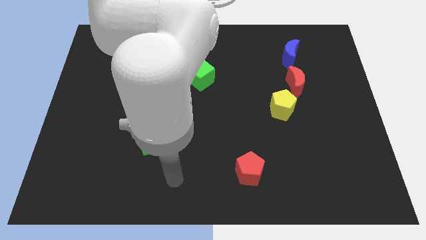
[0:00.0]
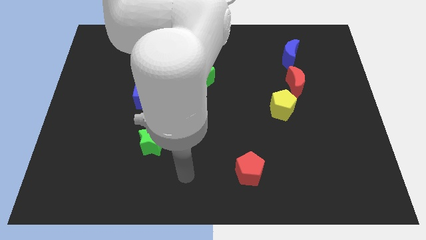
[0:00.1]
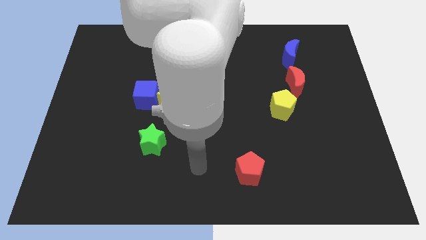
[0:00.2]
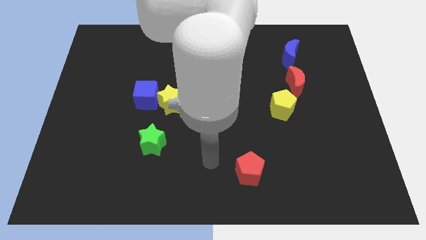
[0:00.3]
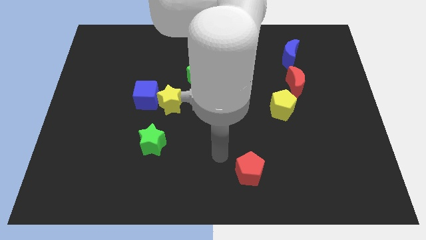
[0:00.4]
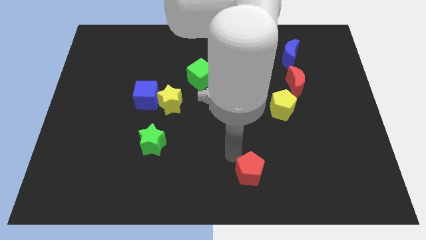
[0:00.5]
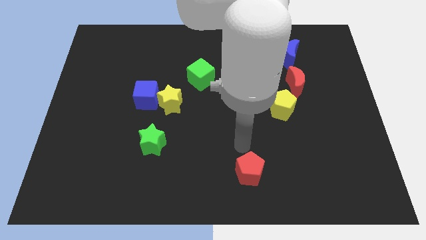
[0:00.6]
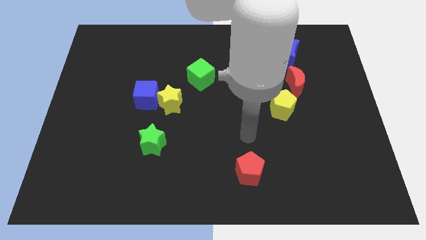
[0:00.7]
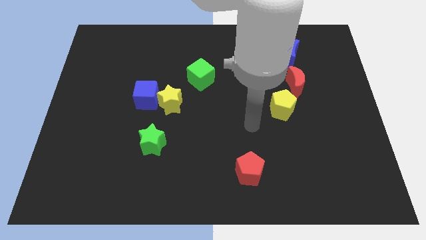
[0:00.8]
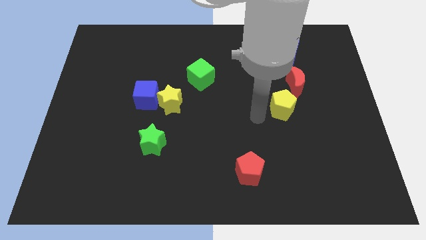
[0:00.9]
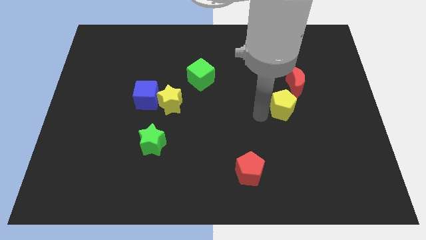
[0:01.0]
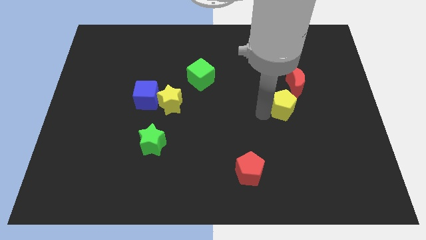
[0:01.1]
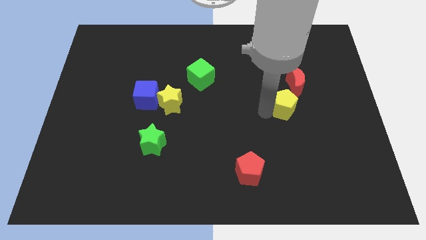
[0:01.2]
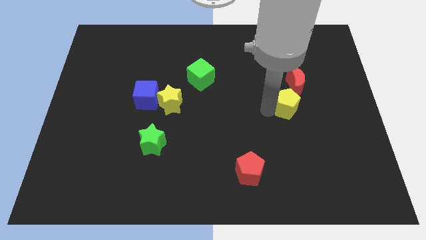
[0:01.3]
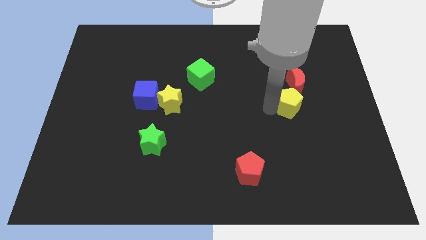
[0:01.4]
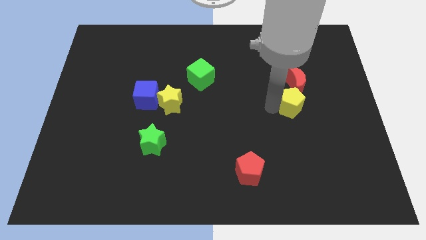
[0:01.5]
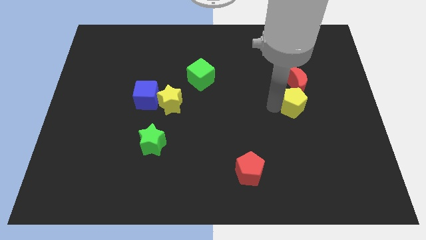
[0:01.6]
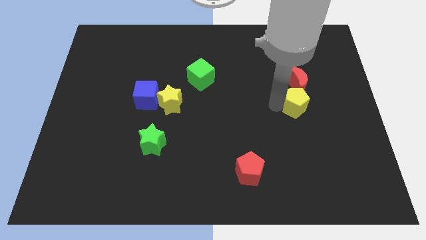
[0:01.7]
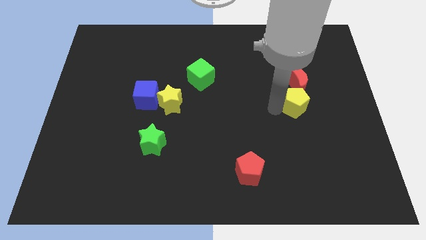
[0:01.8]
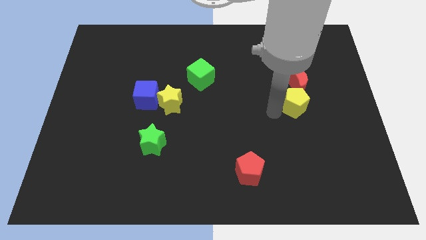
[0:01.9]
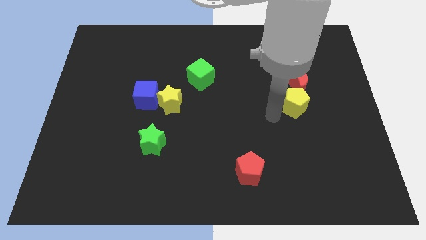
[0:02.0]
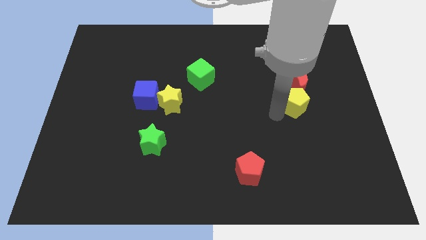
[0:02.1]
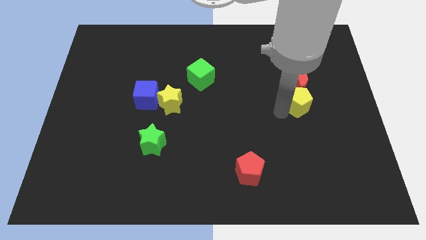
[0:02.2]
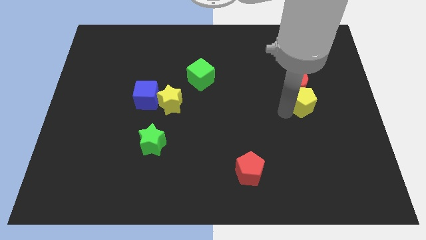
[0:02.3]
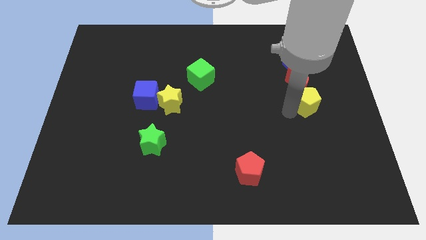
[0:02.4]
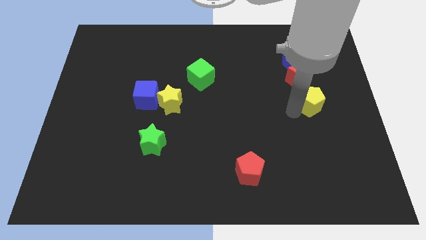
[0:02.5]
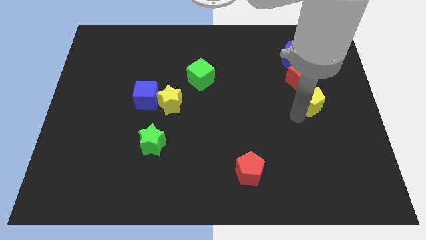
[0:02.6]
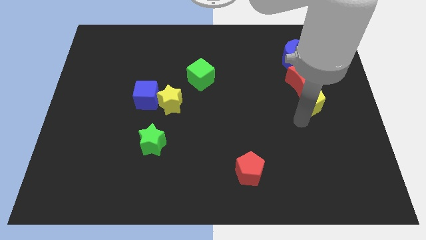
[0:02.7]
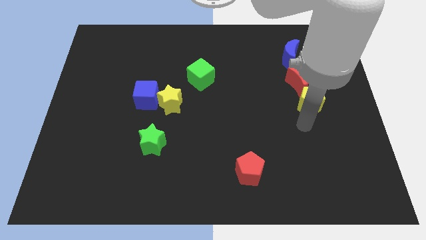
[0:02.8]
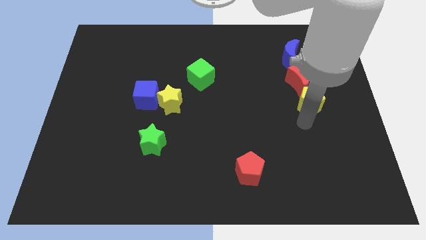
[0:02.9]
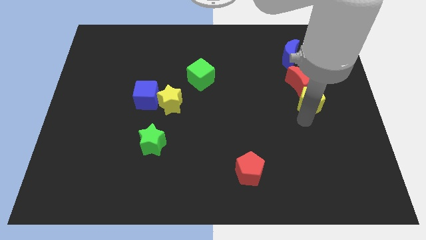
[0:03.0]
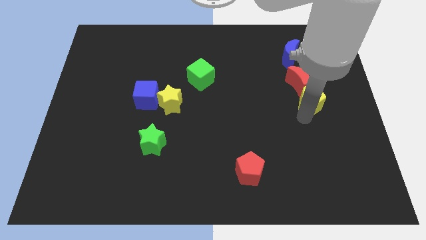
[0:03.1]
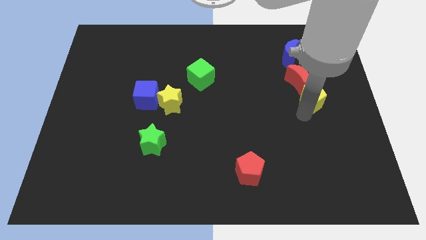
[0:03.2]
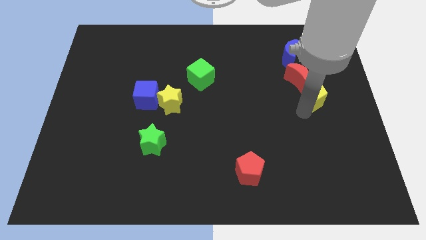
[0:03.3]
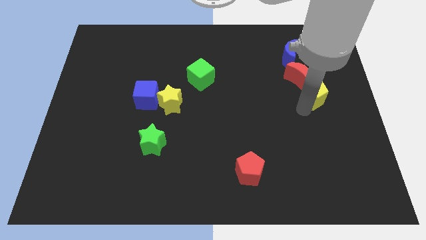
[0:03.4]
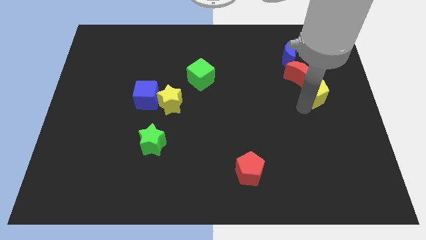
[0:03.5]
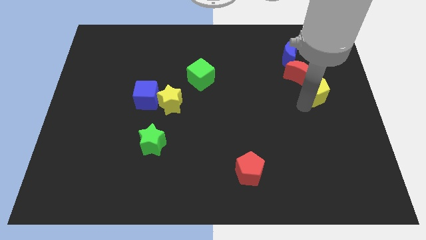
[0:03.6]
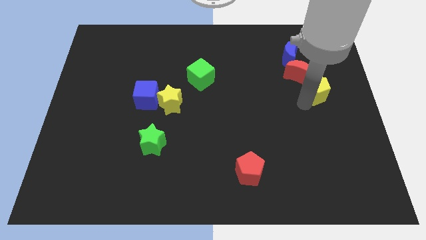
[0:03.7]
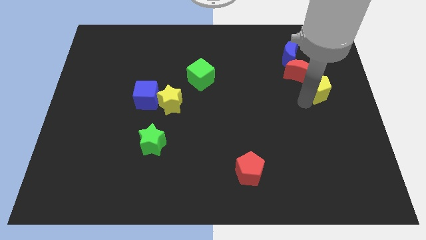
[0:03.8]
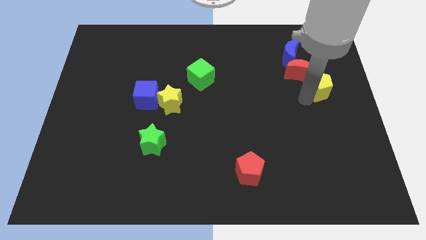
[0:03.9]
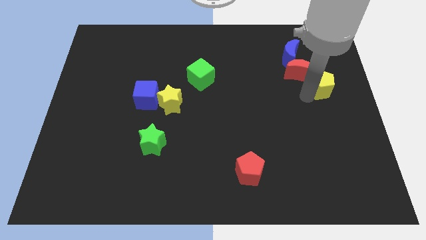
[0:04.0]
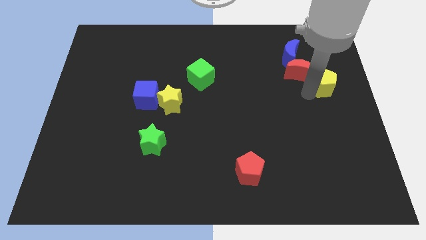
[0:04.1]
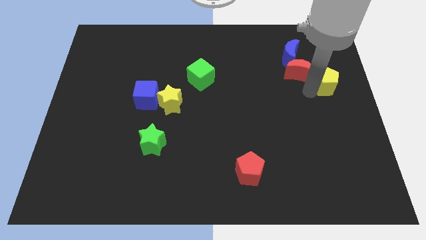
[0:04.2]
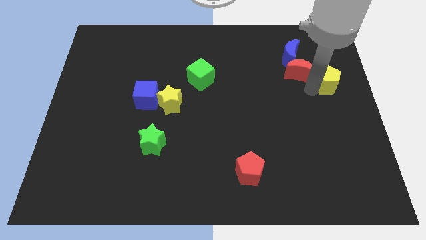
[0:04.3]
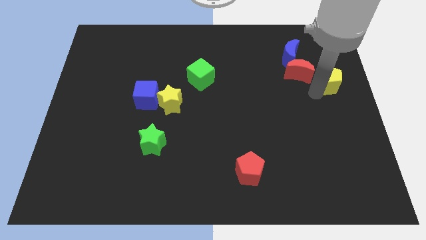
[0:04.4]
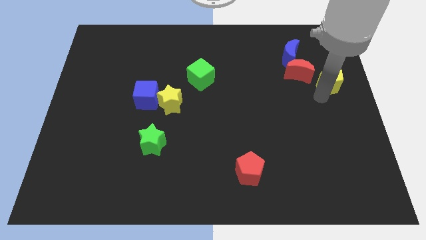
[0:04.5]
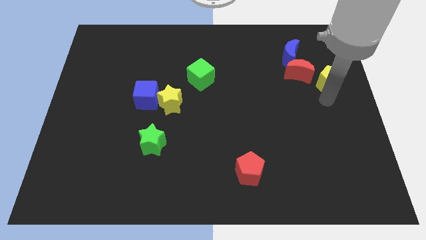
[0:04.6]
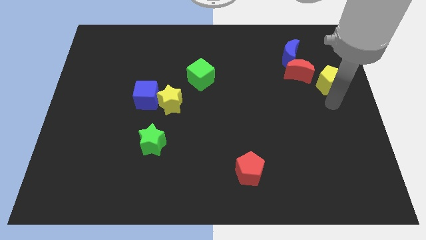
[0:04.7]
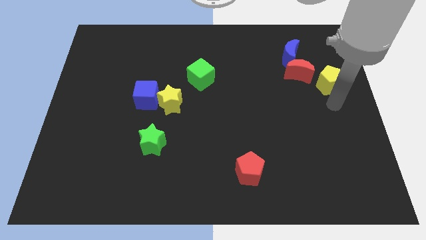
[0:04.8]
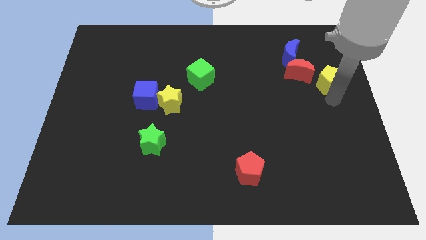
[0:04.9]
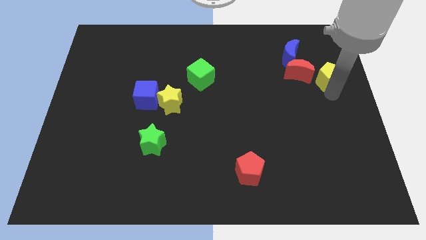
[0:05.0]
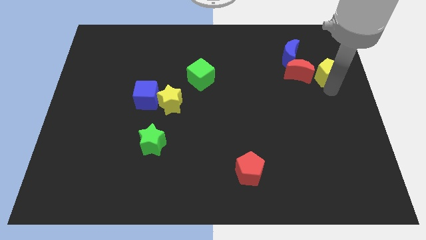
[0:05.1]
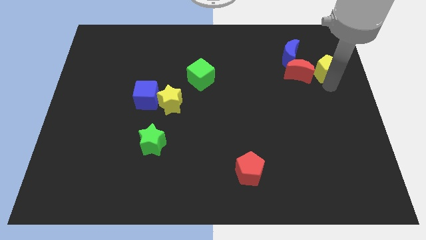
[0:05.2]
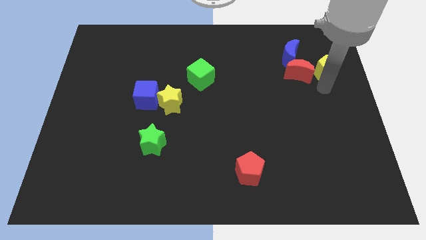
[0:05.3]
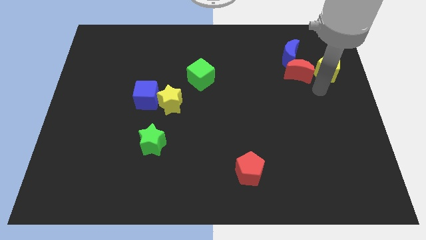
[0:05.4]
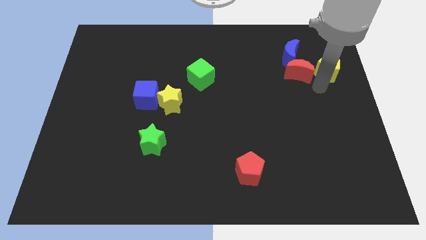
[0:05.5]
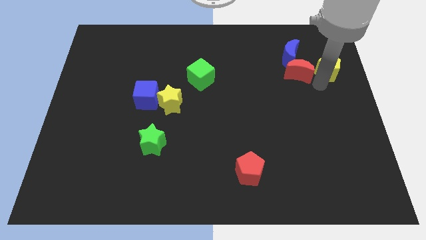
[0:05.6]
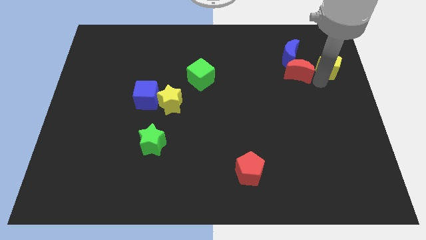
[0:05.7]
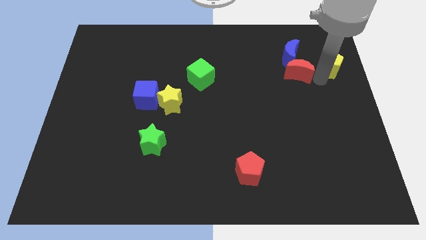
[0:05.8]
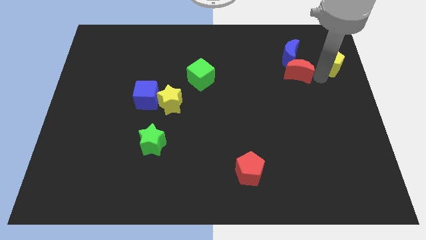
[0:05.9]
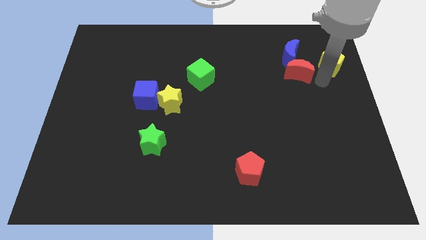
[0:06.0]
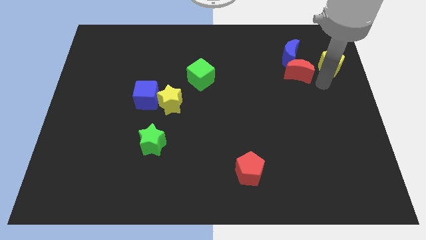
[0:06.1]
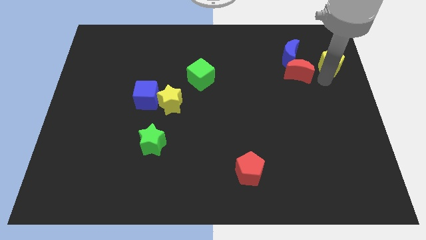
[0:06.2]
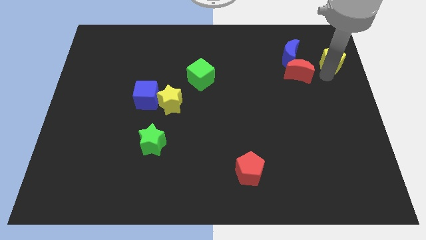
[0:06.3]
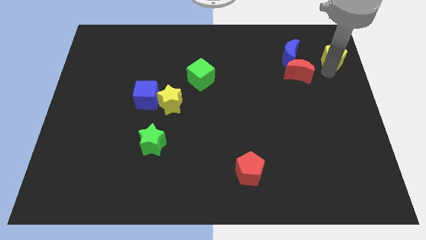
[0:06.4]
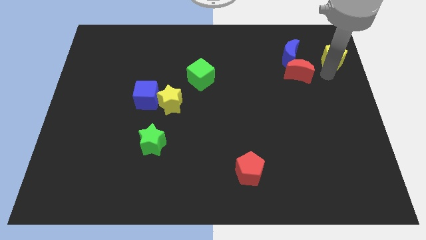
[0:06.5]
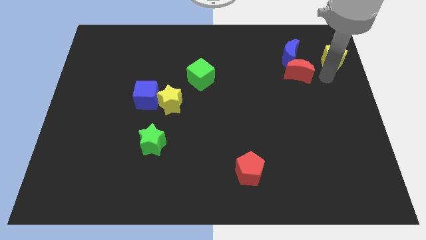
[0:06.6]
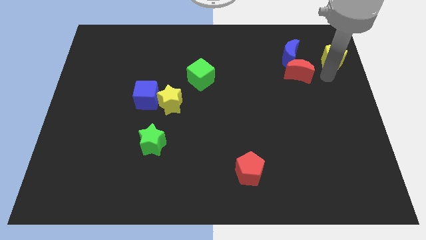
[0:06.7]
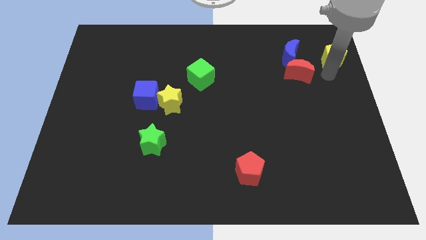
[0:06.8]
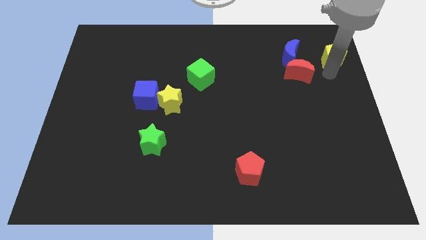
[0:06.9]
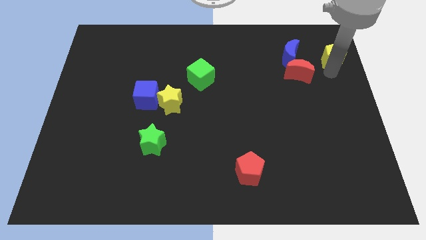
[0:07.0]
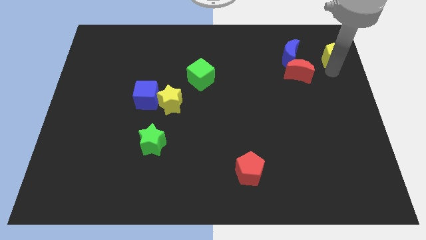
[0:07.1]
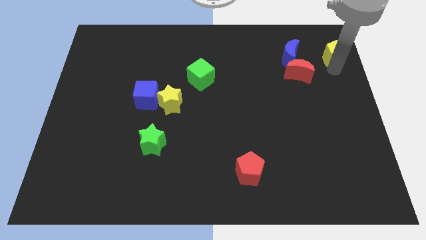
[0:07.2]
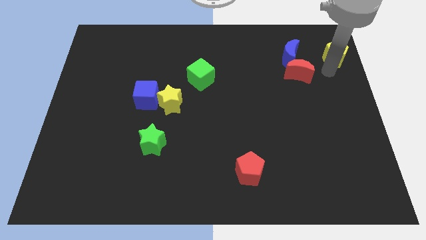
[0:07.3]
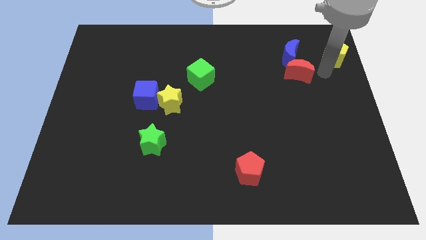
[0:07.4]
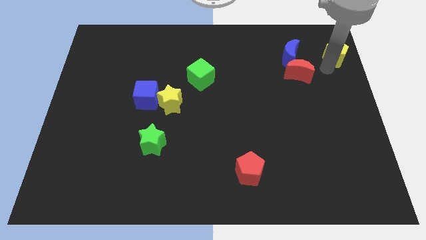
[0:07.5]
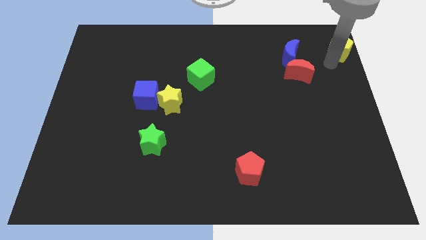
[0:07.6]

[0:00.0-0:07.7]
move the yellow pentagon to the top right of the board
